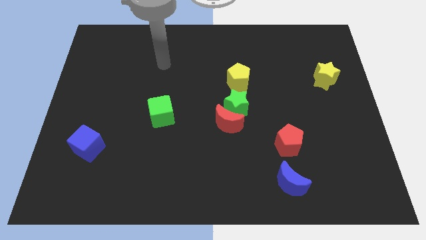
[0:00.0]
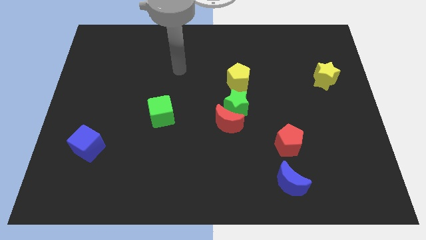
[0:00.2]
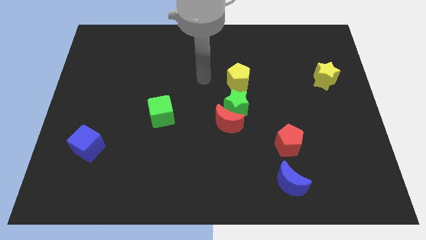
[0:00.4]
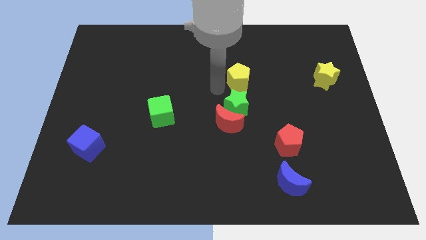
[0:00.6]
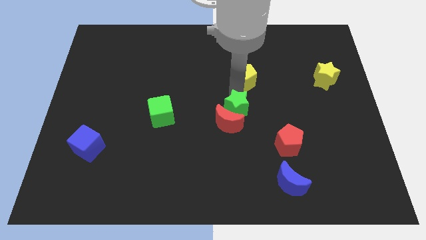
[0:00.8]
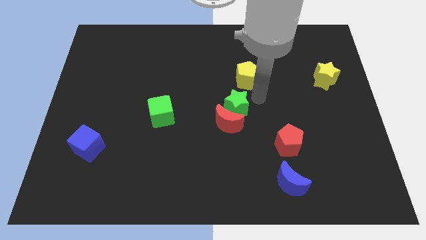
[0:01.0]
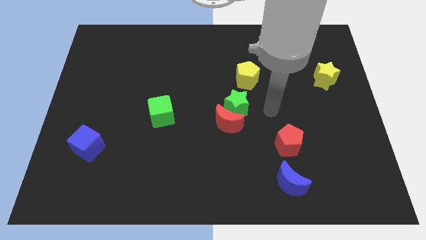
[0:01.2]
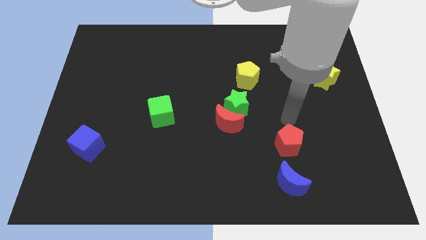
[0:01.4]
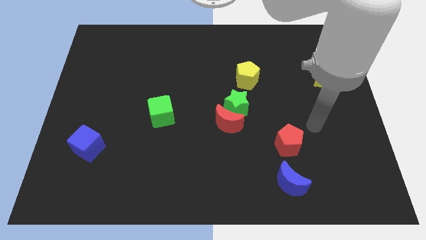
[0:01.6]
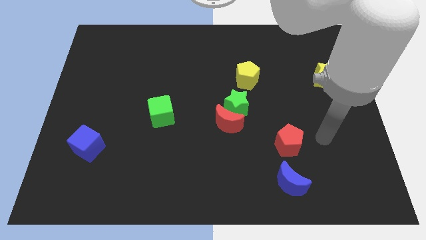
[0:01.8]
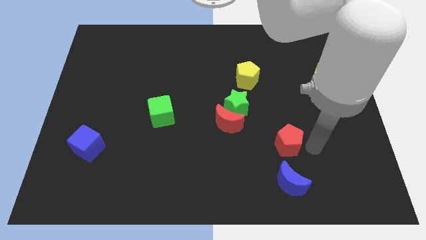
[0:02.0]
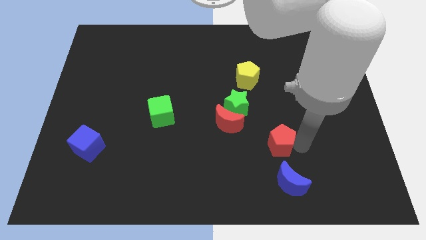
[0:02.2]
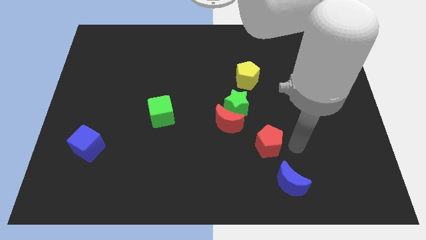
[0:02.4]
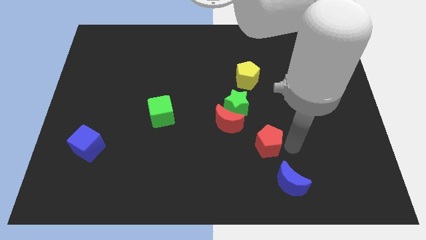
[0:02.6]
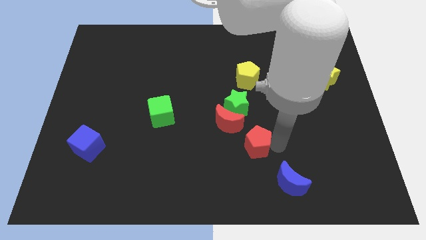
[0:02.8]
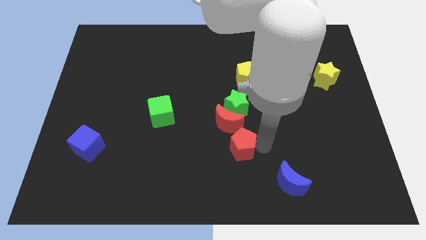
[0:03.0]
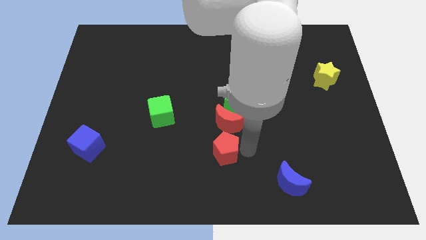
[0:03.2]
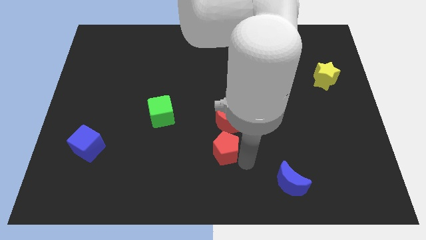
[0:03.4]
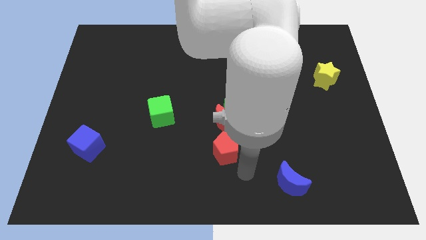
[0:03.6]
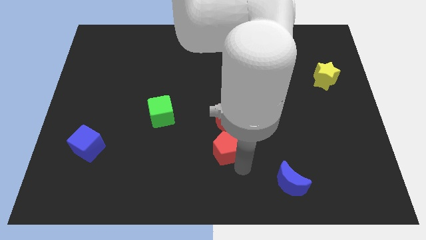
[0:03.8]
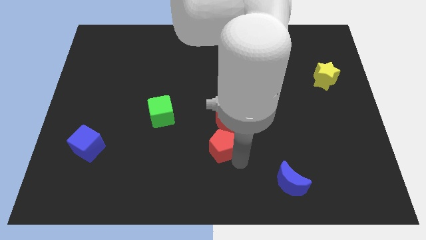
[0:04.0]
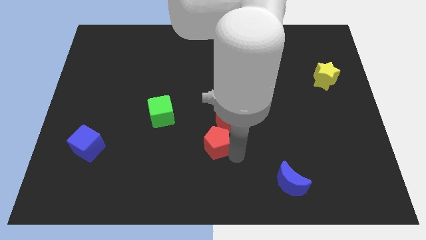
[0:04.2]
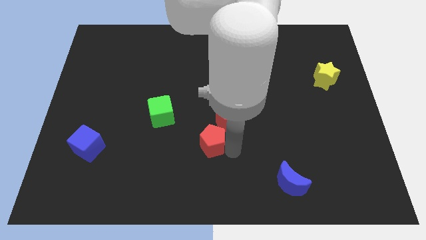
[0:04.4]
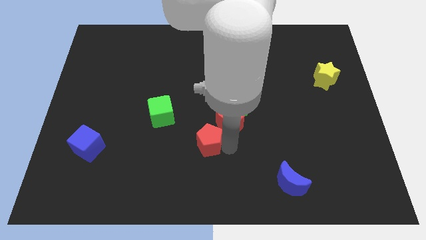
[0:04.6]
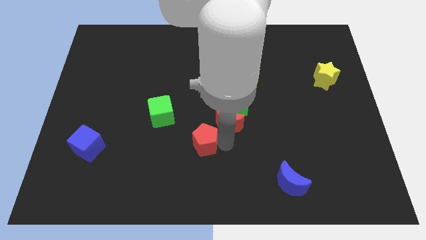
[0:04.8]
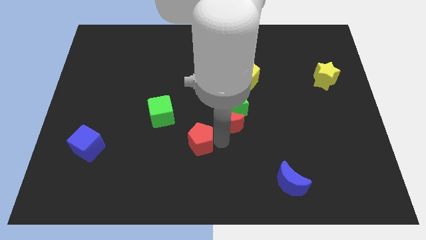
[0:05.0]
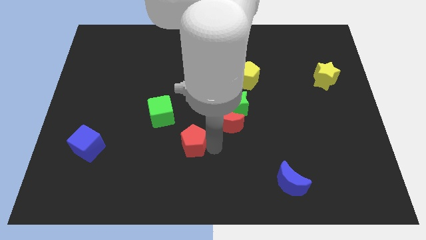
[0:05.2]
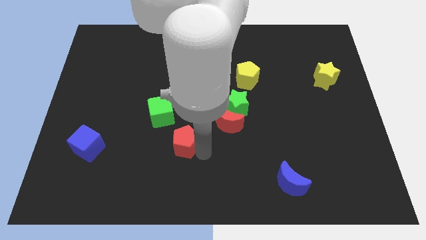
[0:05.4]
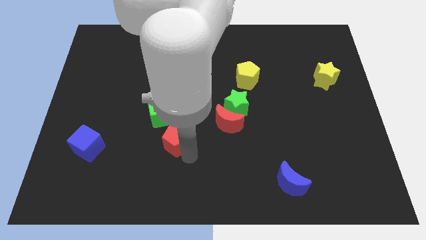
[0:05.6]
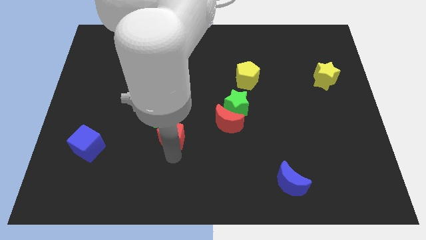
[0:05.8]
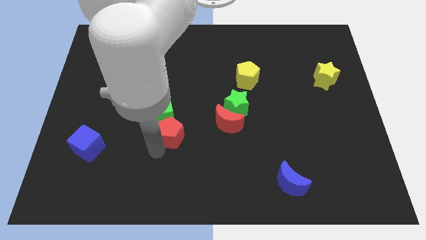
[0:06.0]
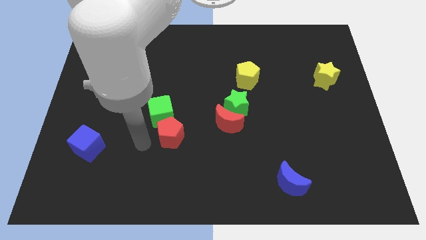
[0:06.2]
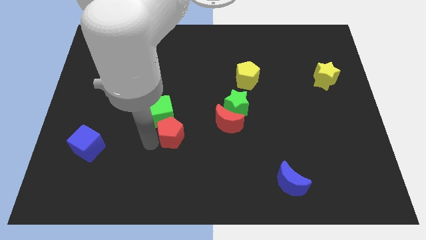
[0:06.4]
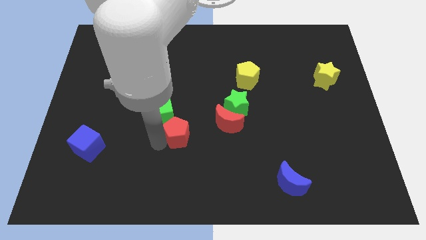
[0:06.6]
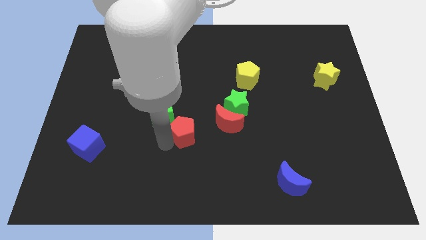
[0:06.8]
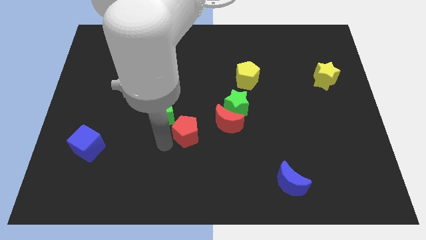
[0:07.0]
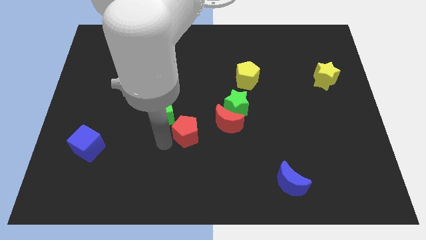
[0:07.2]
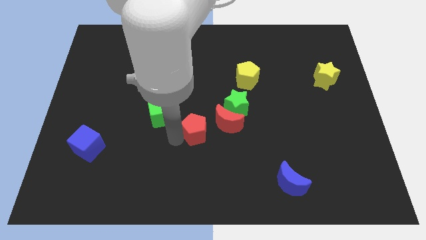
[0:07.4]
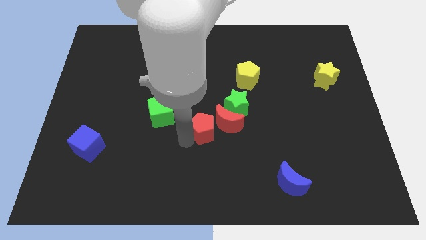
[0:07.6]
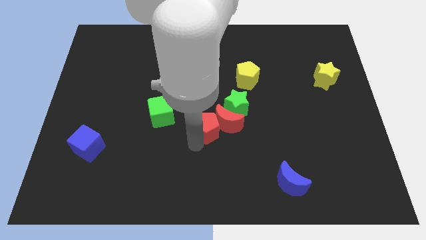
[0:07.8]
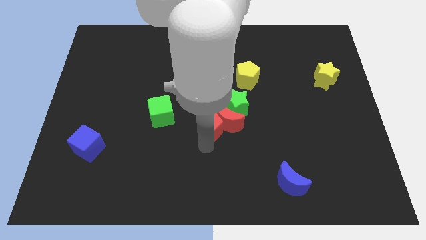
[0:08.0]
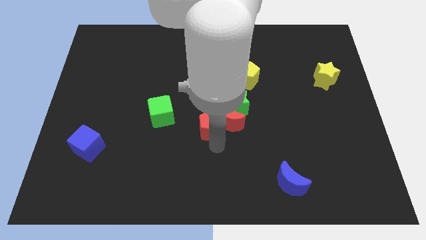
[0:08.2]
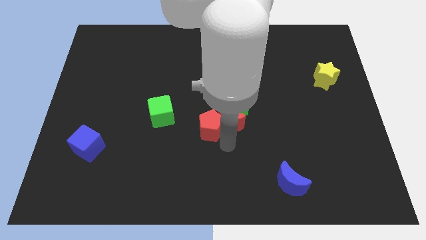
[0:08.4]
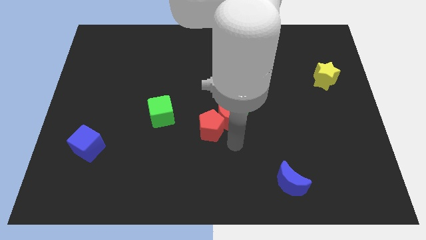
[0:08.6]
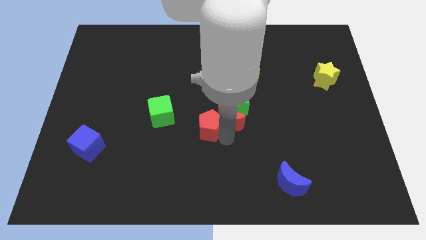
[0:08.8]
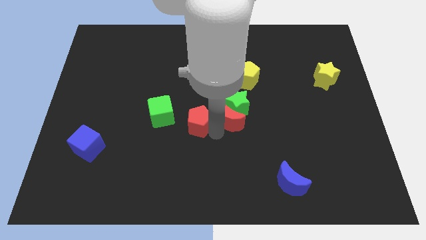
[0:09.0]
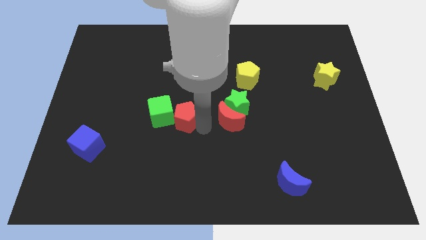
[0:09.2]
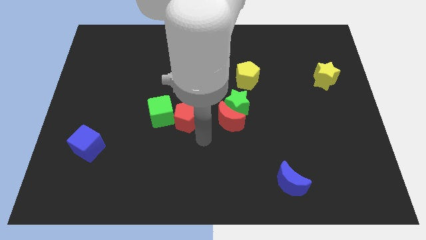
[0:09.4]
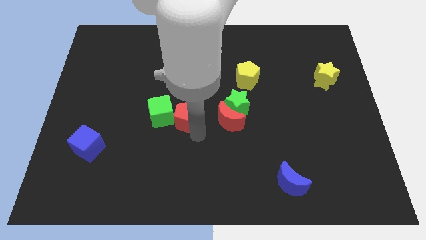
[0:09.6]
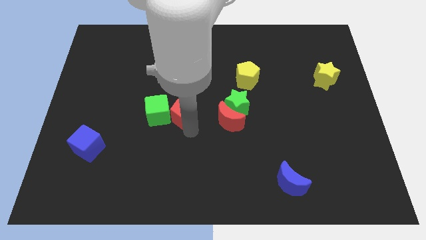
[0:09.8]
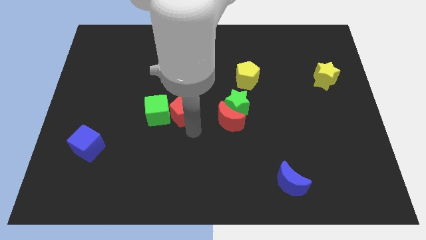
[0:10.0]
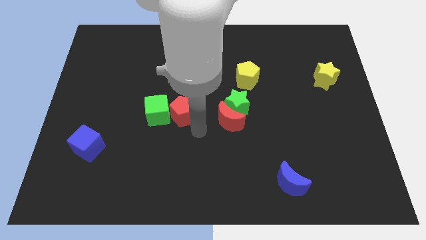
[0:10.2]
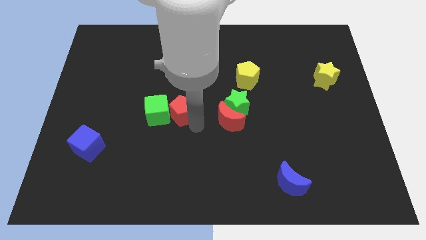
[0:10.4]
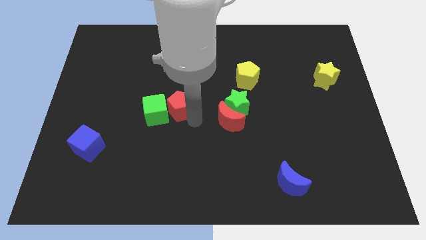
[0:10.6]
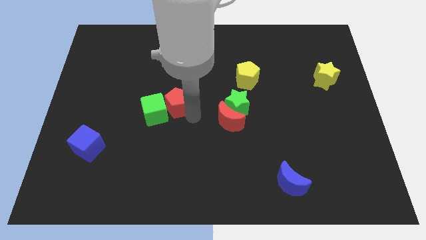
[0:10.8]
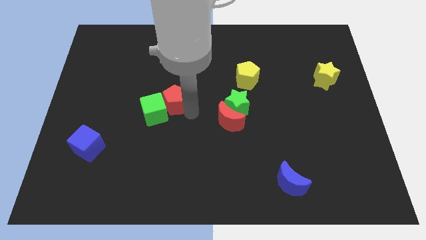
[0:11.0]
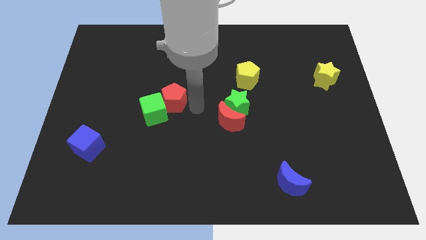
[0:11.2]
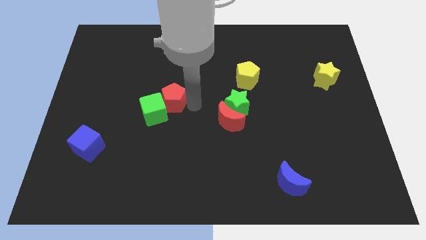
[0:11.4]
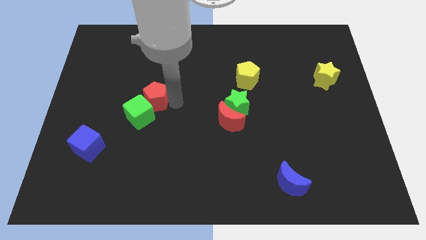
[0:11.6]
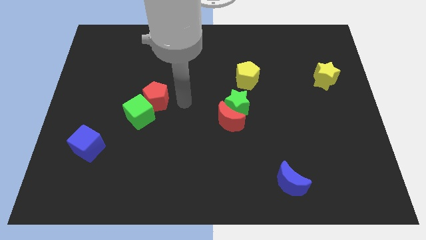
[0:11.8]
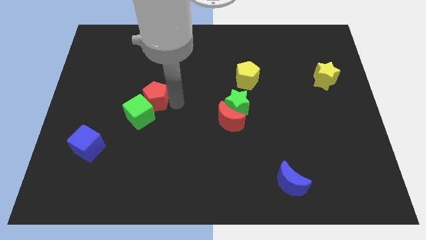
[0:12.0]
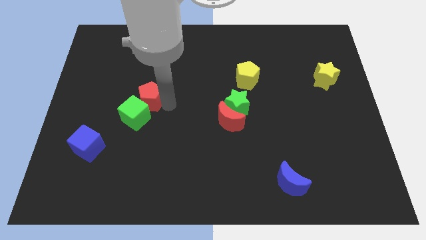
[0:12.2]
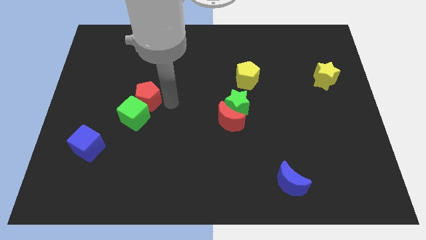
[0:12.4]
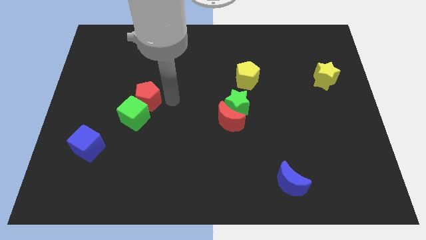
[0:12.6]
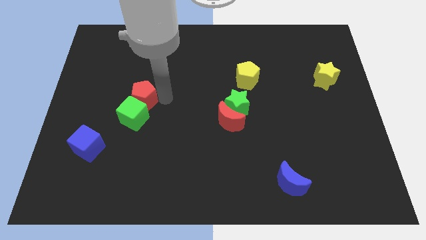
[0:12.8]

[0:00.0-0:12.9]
push the red pentagon to the top left side of the green cube

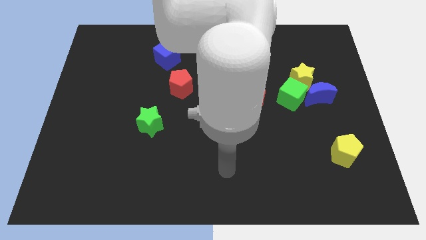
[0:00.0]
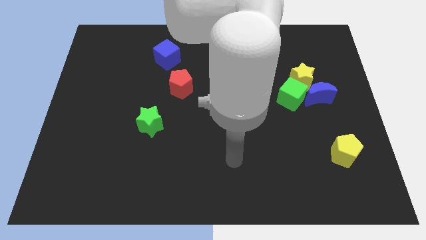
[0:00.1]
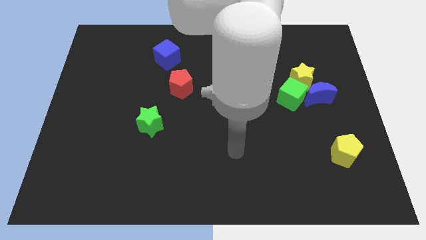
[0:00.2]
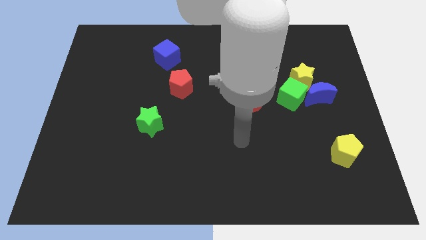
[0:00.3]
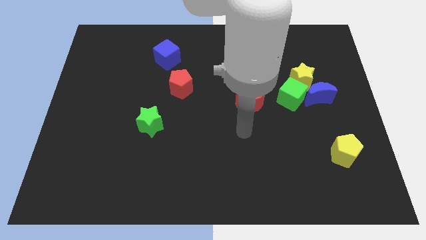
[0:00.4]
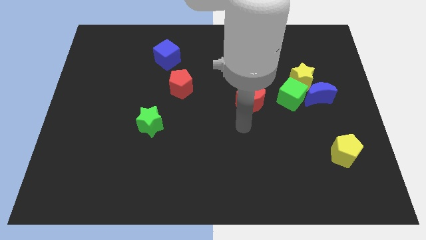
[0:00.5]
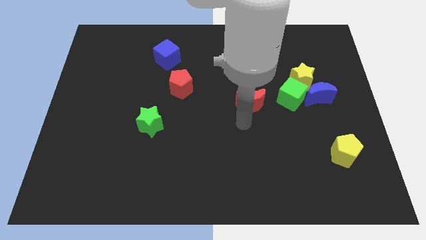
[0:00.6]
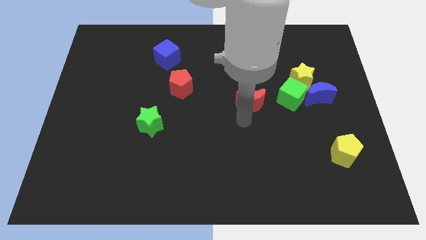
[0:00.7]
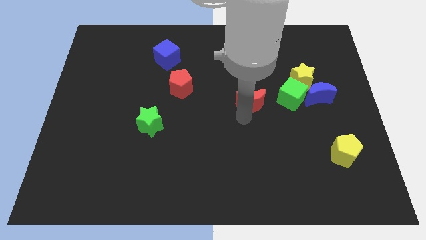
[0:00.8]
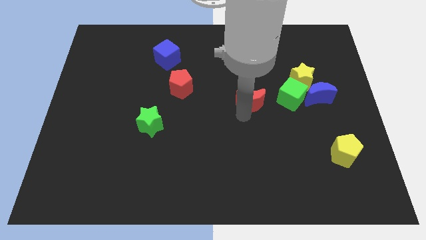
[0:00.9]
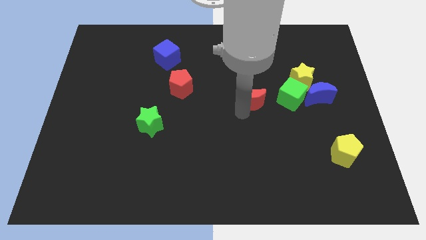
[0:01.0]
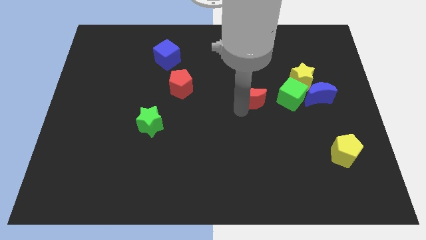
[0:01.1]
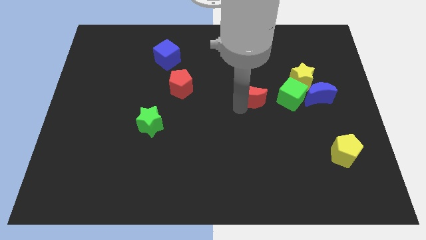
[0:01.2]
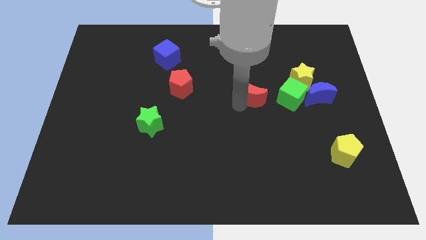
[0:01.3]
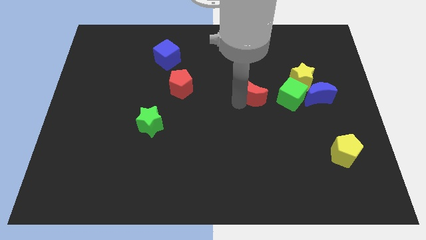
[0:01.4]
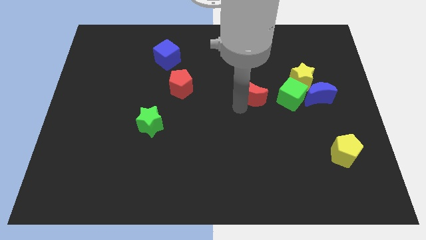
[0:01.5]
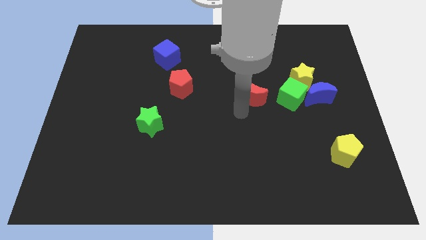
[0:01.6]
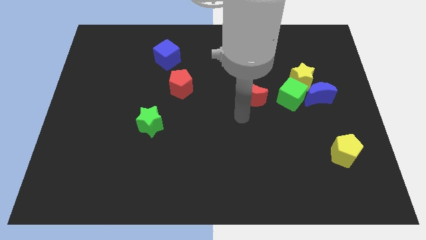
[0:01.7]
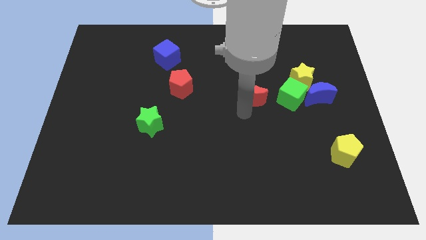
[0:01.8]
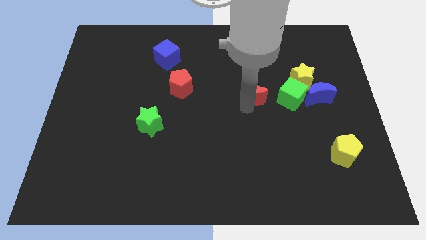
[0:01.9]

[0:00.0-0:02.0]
move the red moon just left of the yellow star
